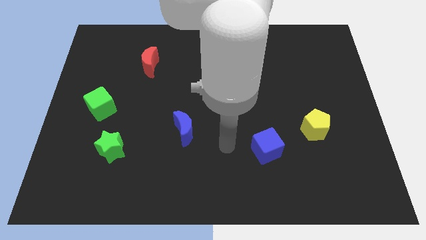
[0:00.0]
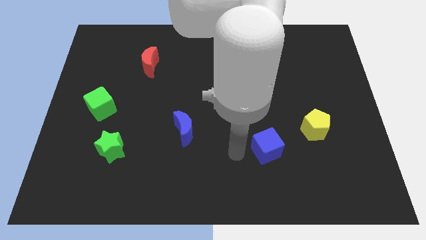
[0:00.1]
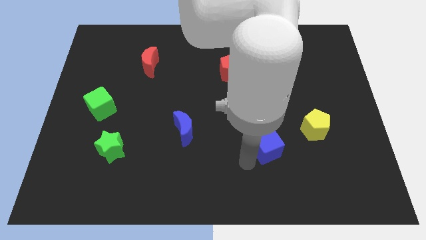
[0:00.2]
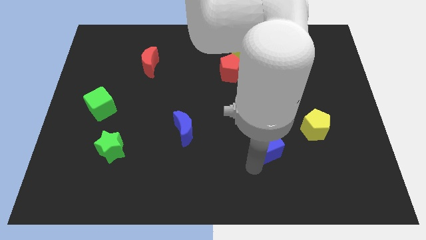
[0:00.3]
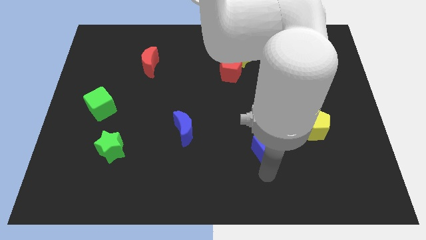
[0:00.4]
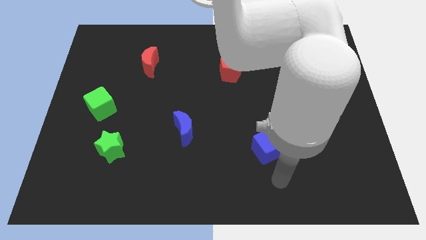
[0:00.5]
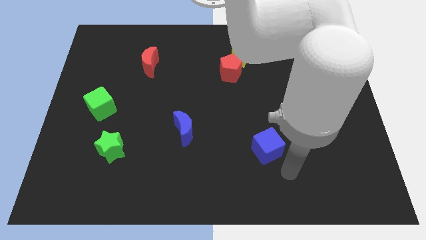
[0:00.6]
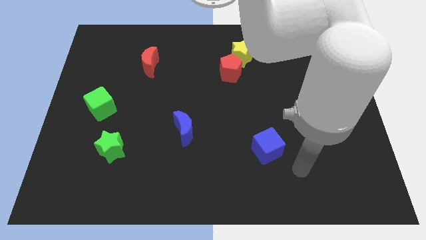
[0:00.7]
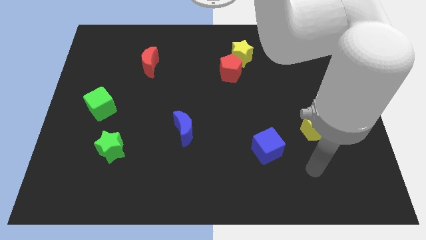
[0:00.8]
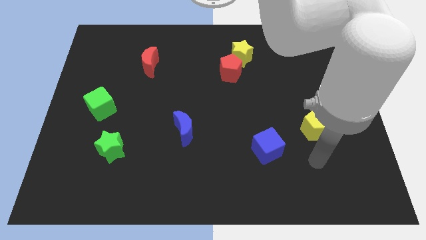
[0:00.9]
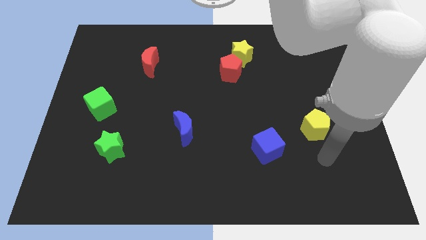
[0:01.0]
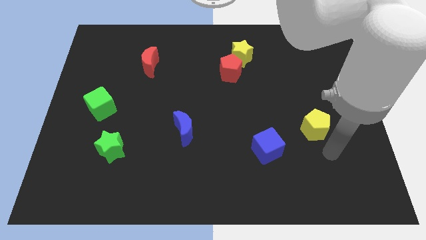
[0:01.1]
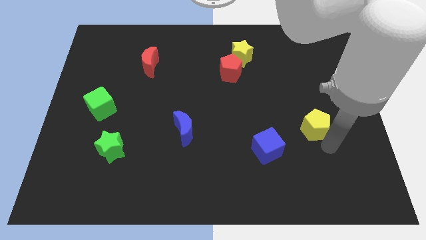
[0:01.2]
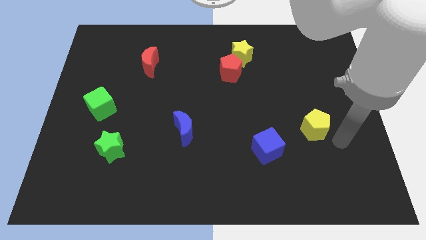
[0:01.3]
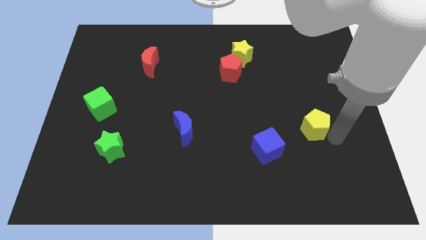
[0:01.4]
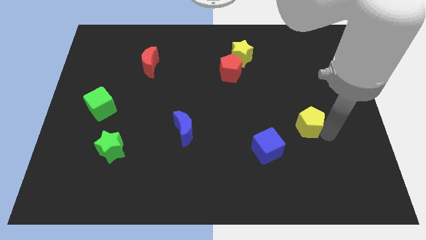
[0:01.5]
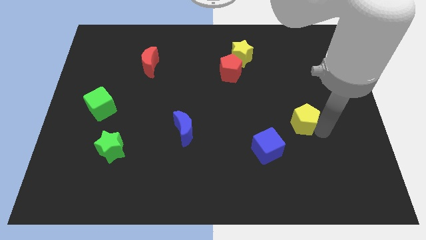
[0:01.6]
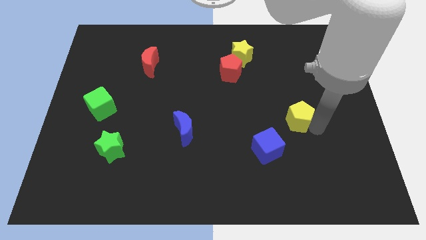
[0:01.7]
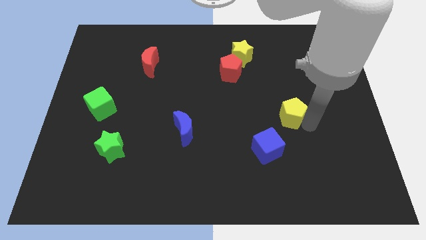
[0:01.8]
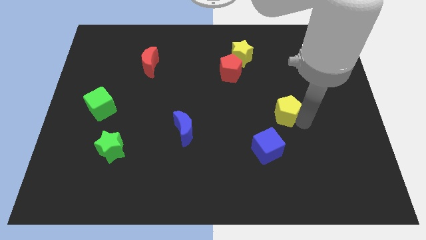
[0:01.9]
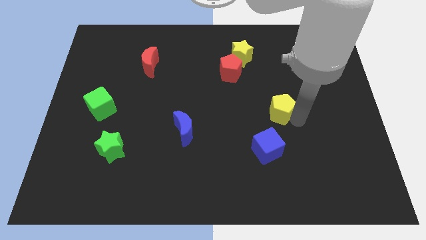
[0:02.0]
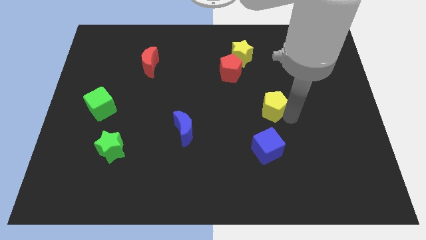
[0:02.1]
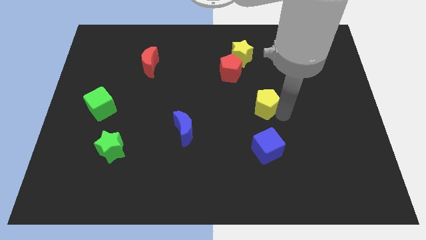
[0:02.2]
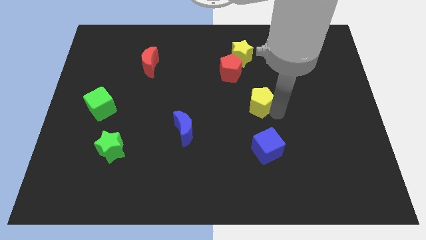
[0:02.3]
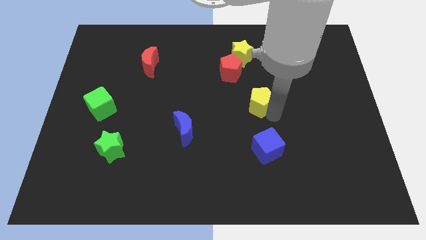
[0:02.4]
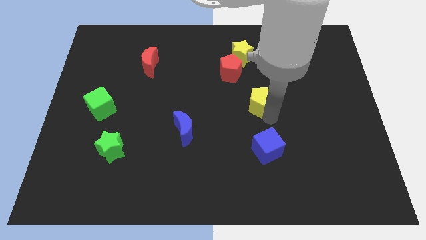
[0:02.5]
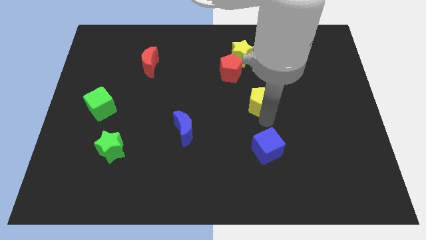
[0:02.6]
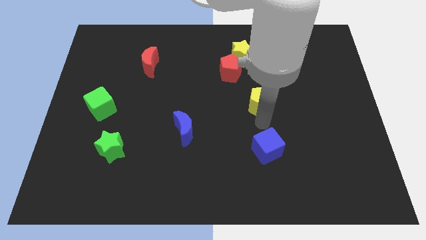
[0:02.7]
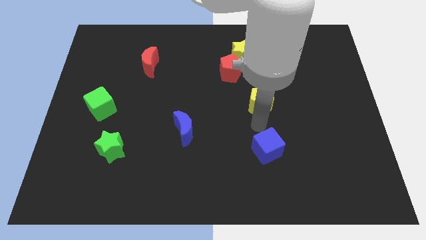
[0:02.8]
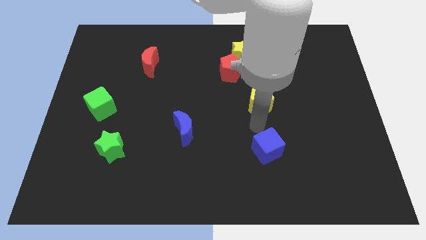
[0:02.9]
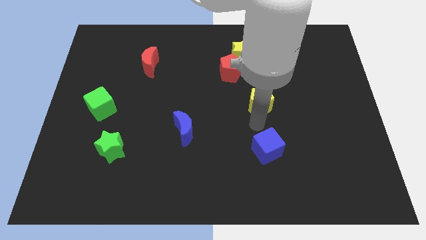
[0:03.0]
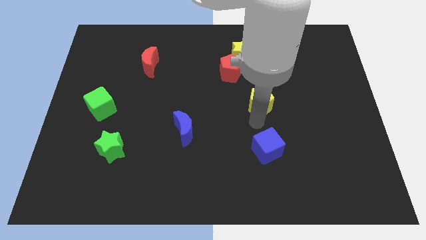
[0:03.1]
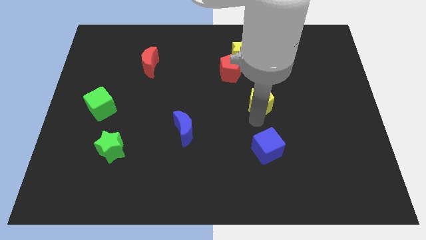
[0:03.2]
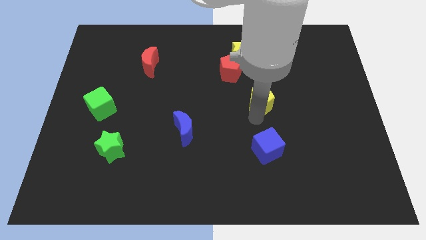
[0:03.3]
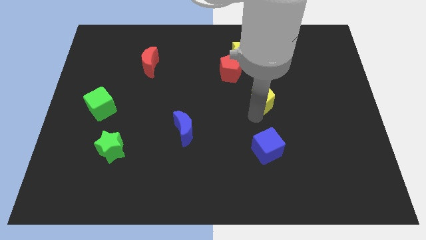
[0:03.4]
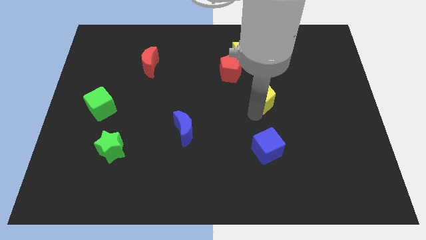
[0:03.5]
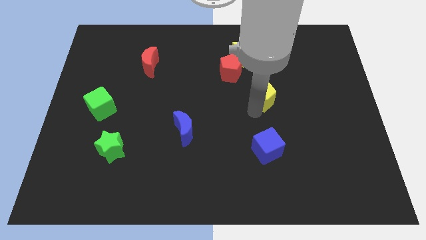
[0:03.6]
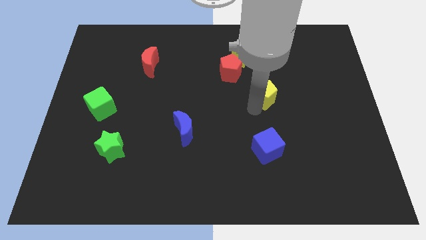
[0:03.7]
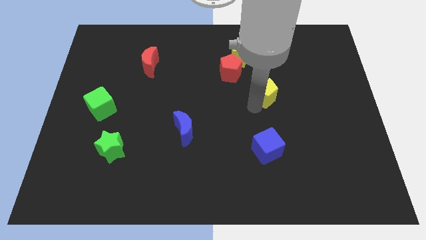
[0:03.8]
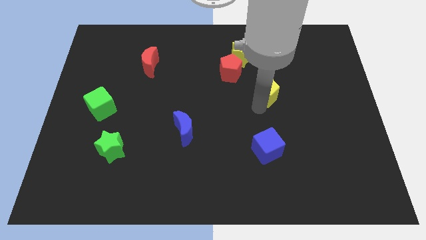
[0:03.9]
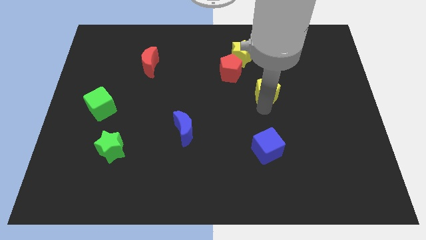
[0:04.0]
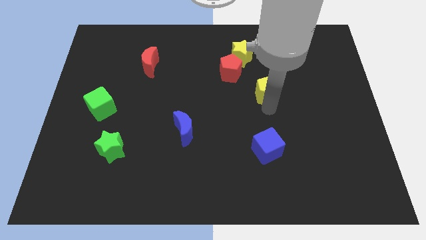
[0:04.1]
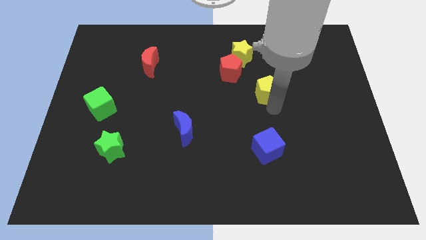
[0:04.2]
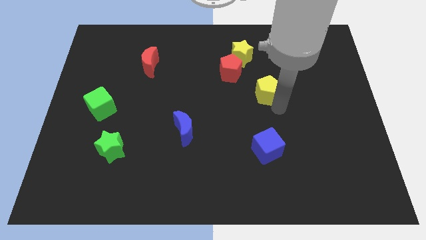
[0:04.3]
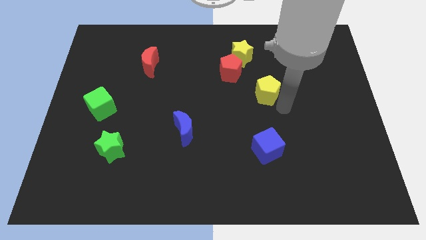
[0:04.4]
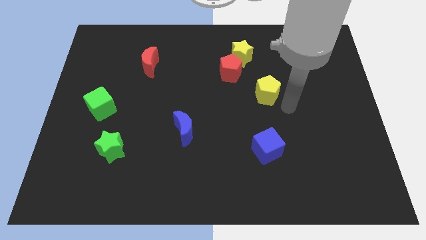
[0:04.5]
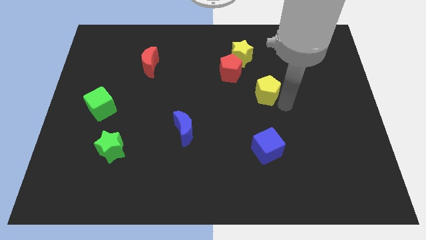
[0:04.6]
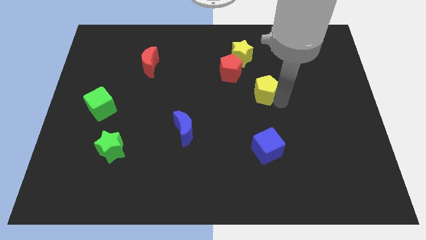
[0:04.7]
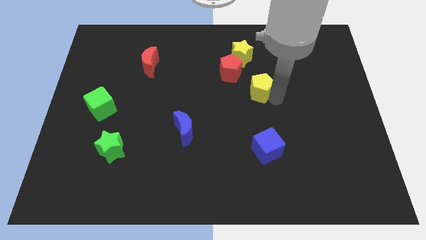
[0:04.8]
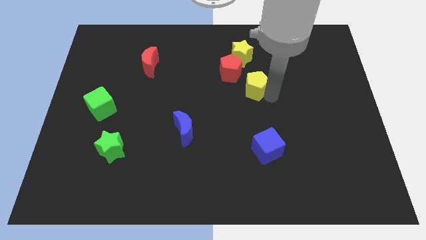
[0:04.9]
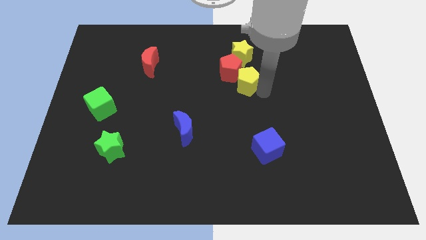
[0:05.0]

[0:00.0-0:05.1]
slide the yellow pentagon next to the red pentagon

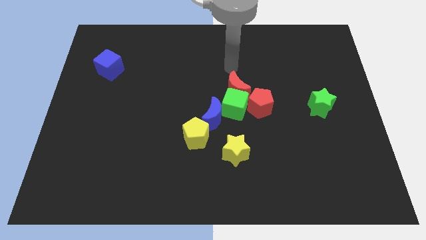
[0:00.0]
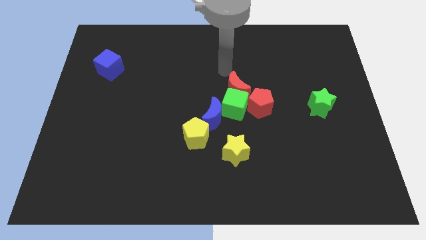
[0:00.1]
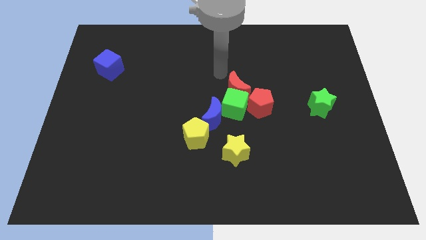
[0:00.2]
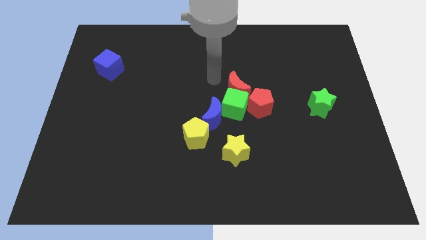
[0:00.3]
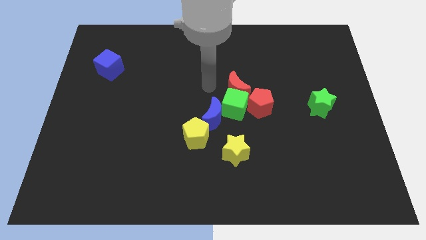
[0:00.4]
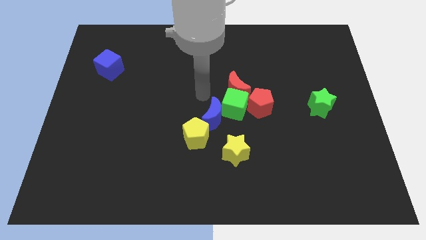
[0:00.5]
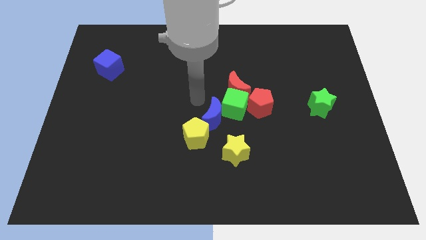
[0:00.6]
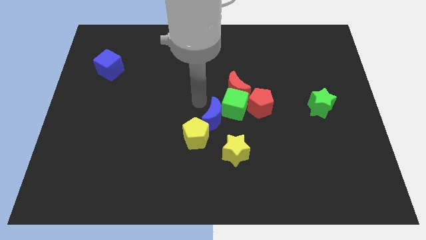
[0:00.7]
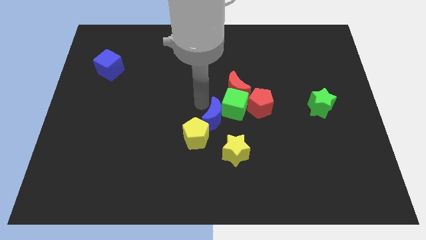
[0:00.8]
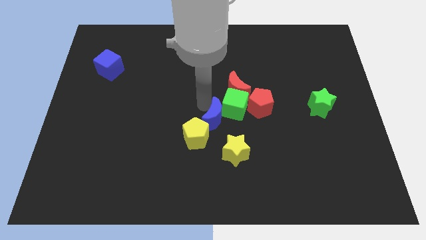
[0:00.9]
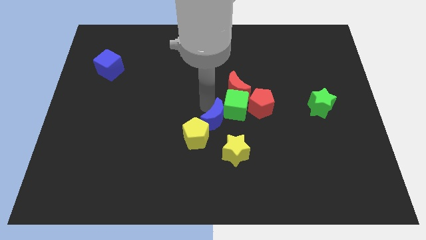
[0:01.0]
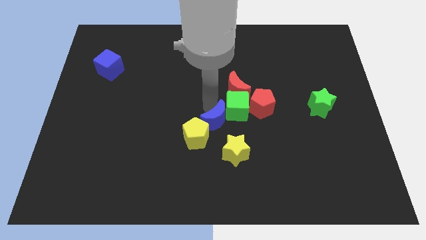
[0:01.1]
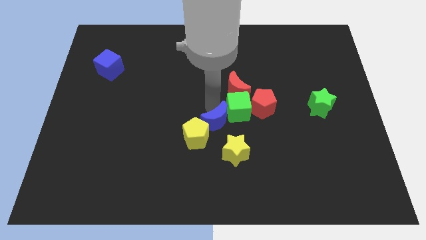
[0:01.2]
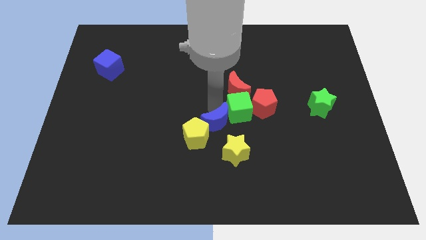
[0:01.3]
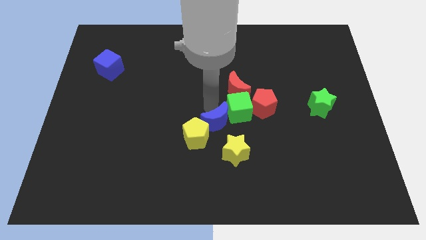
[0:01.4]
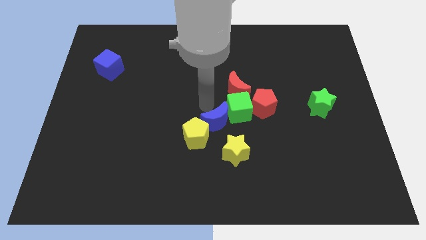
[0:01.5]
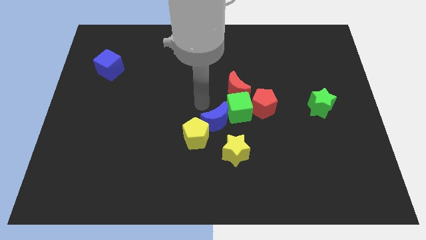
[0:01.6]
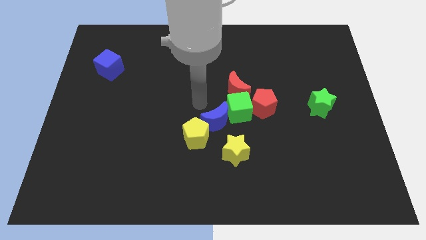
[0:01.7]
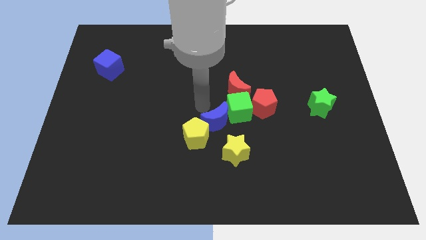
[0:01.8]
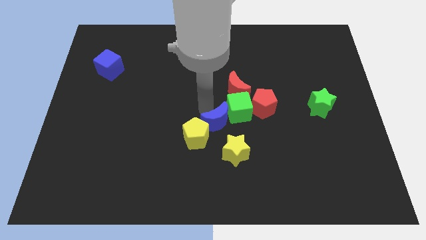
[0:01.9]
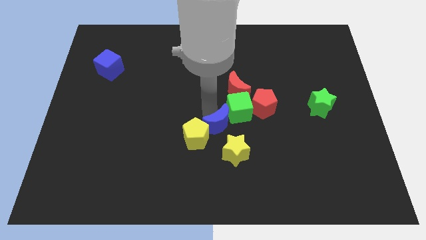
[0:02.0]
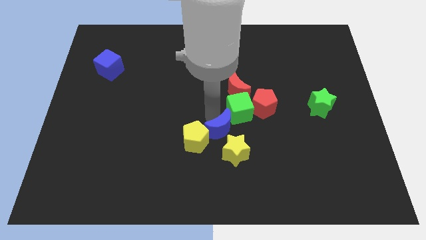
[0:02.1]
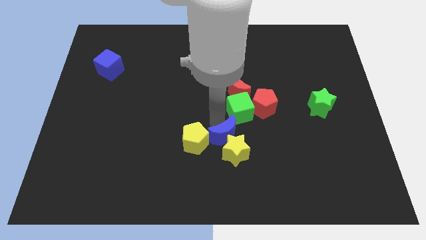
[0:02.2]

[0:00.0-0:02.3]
move the blue moon to the yellow star

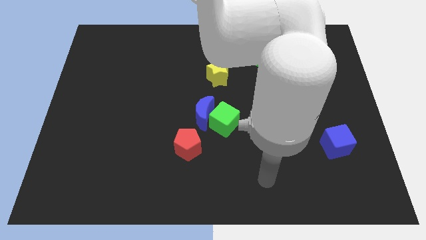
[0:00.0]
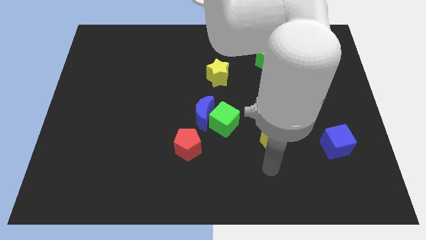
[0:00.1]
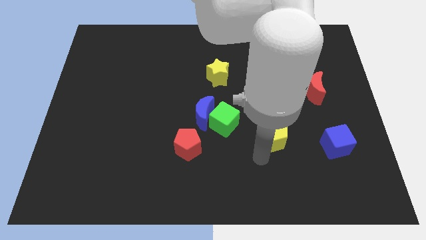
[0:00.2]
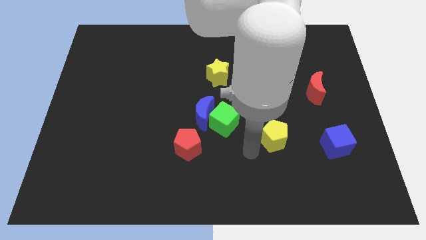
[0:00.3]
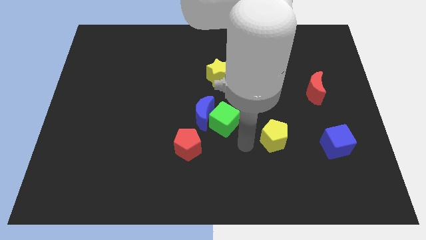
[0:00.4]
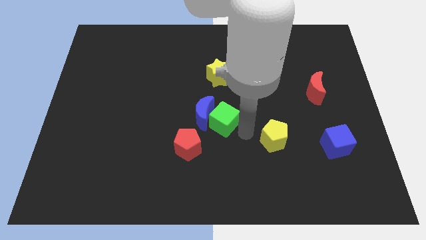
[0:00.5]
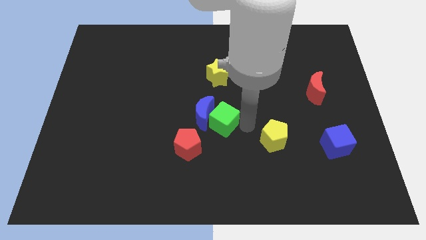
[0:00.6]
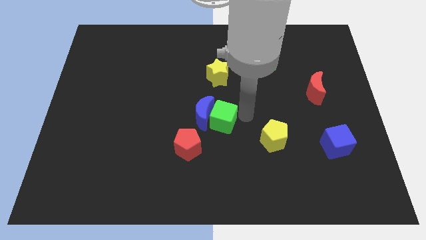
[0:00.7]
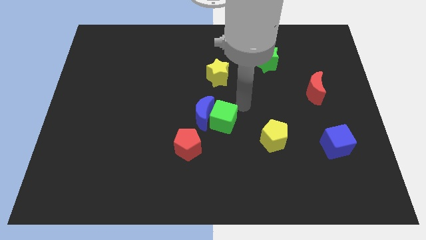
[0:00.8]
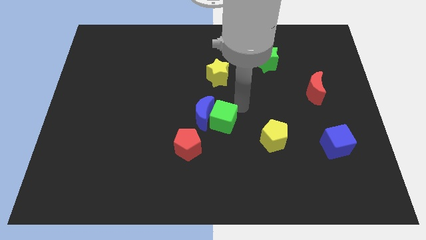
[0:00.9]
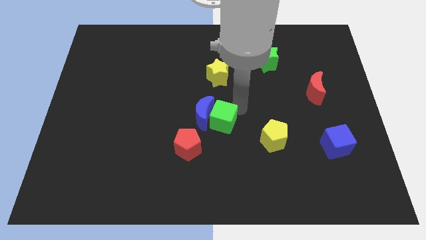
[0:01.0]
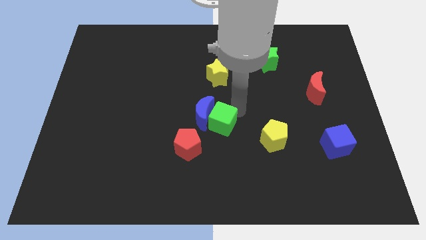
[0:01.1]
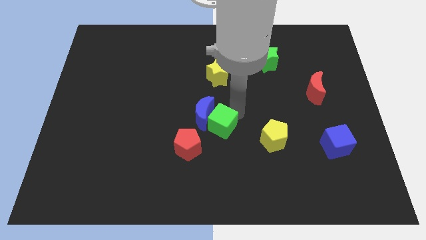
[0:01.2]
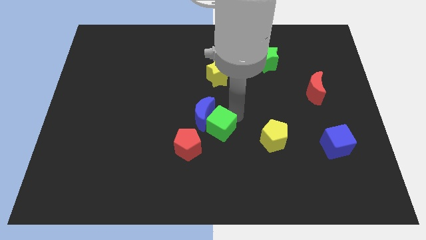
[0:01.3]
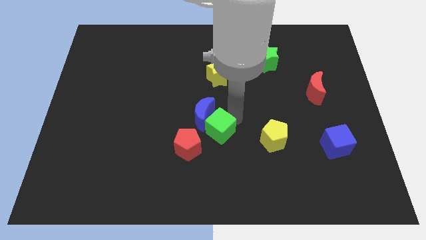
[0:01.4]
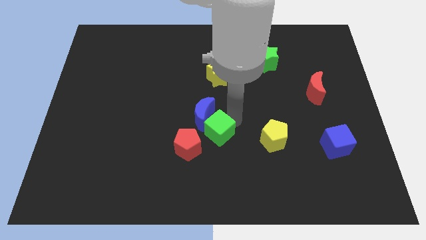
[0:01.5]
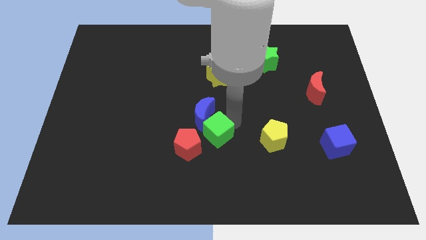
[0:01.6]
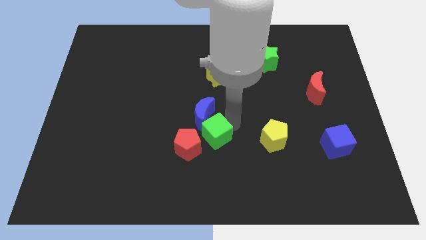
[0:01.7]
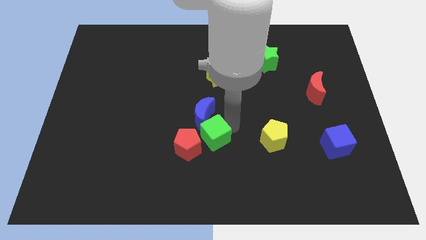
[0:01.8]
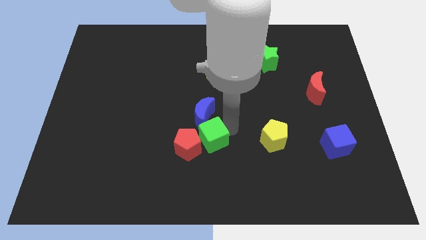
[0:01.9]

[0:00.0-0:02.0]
push the green cube to the red pentagon
